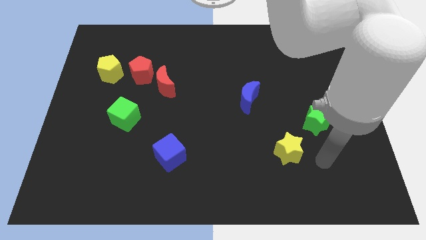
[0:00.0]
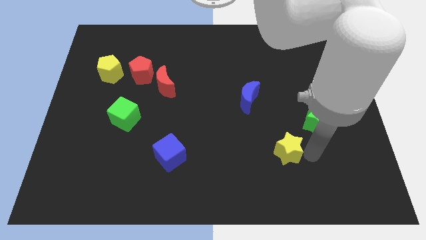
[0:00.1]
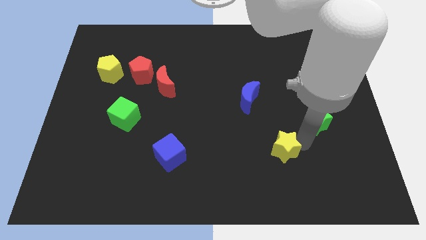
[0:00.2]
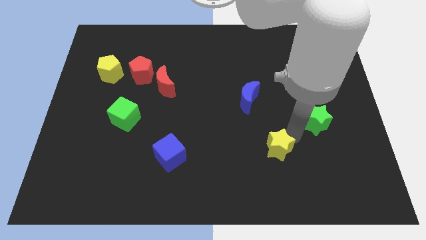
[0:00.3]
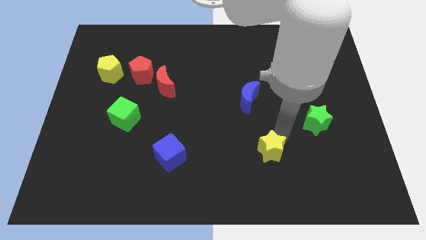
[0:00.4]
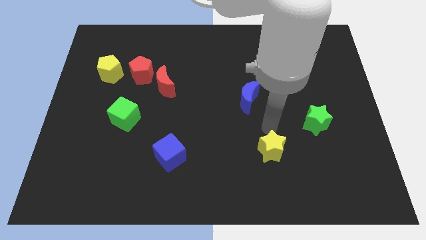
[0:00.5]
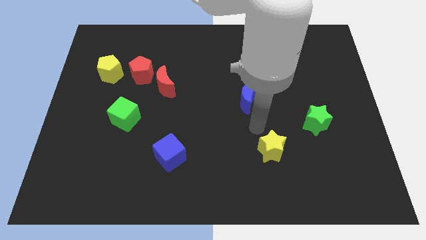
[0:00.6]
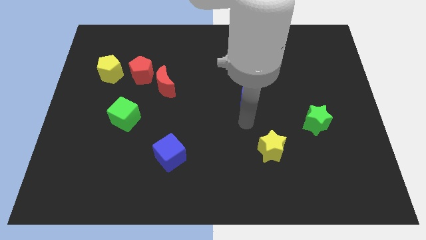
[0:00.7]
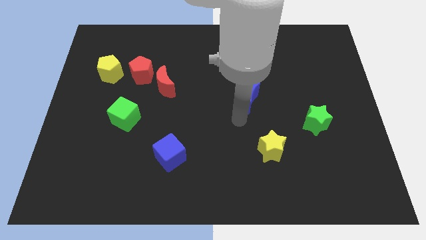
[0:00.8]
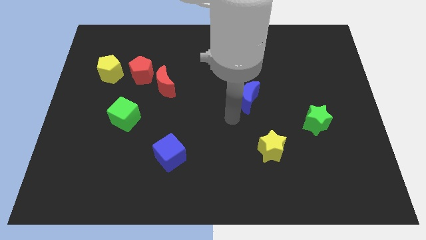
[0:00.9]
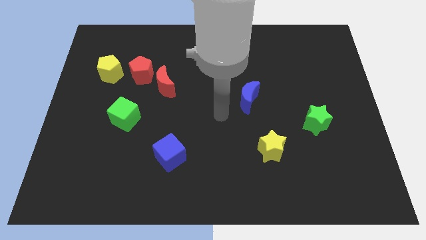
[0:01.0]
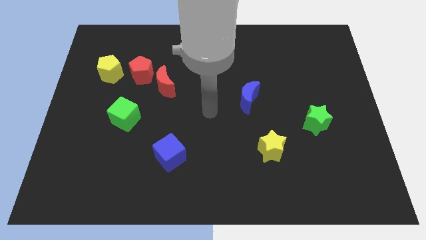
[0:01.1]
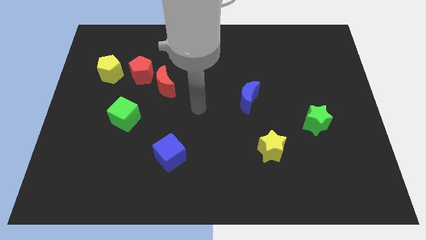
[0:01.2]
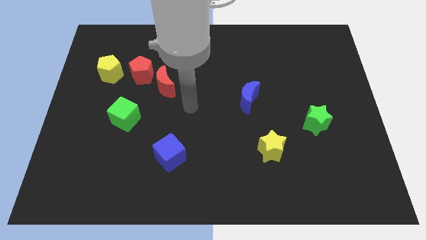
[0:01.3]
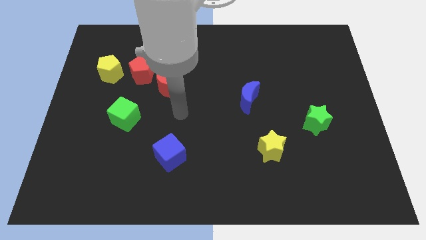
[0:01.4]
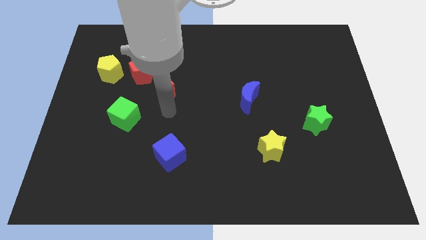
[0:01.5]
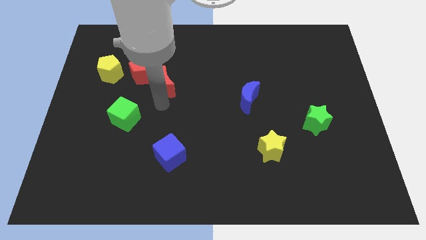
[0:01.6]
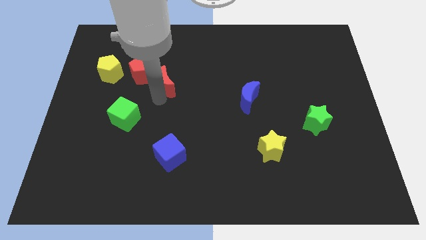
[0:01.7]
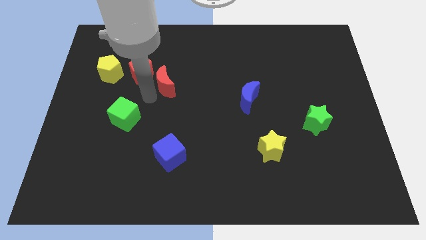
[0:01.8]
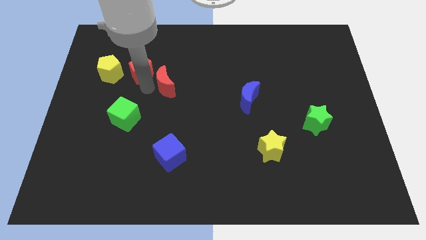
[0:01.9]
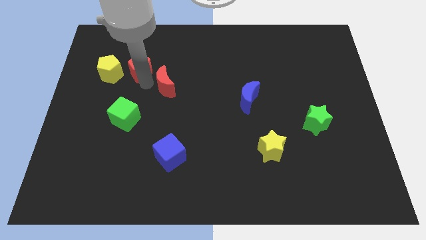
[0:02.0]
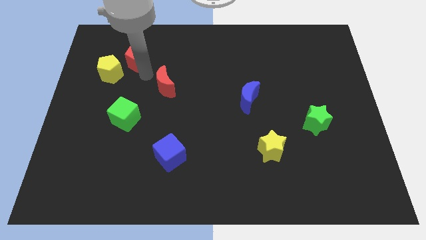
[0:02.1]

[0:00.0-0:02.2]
pull the red moon apart from the red pentagon

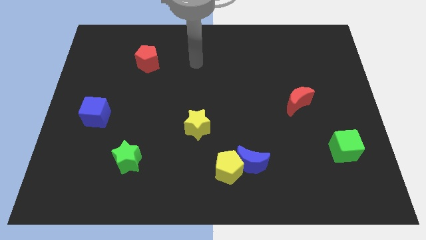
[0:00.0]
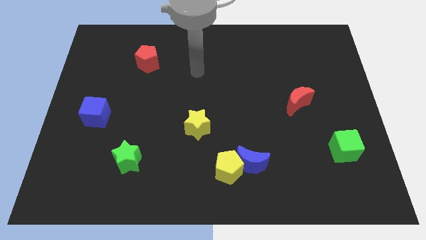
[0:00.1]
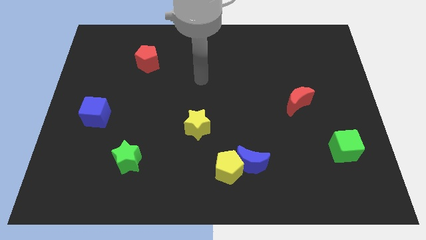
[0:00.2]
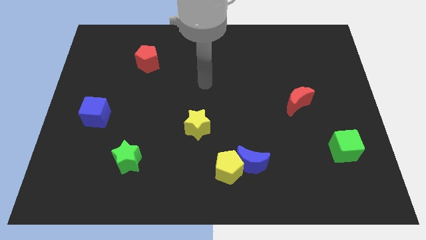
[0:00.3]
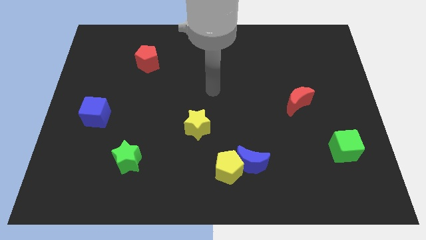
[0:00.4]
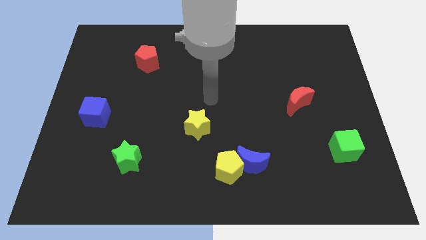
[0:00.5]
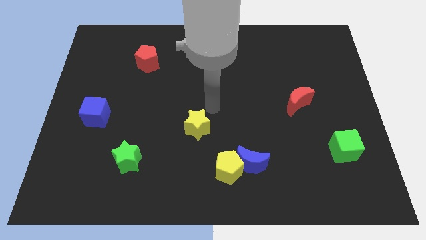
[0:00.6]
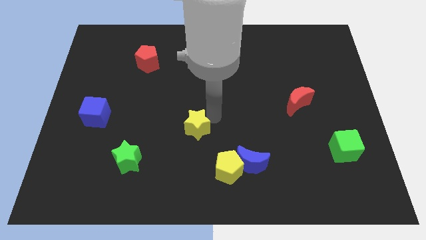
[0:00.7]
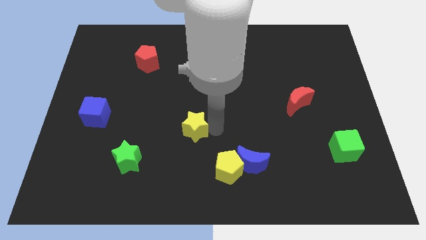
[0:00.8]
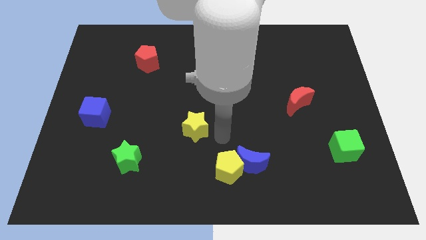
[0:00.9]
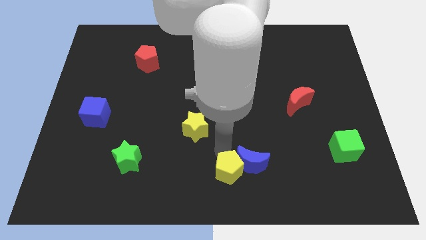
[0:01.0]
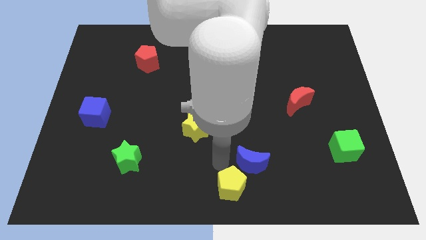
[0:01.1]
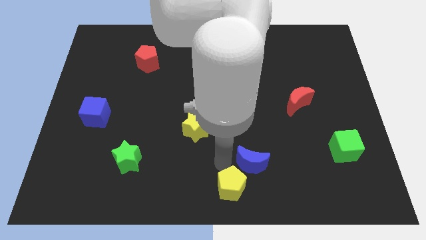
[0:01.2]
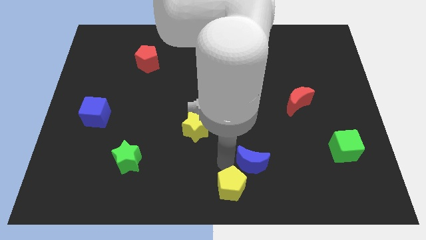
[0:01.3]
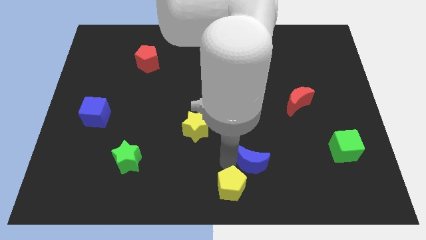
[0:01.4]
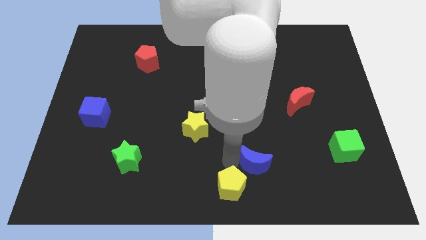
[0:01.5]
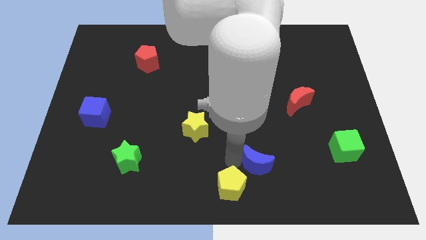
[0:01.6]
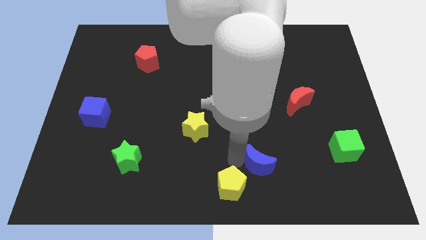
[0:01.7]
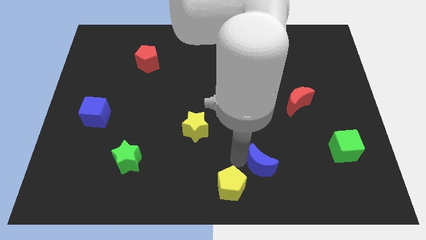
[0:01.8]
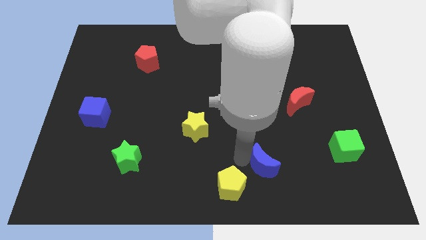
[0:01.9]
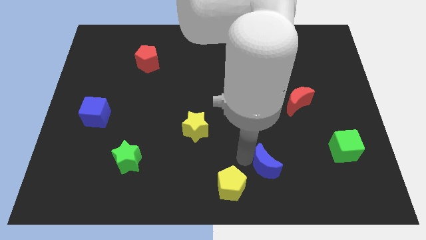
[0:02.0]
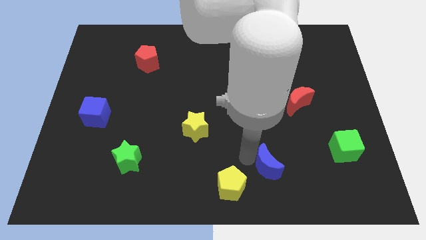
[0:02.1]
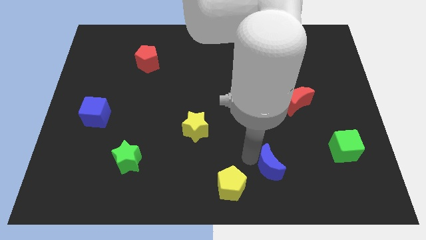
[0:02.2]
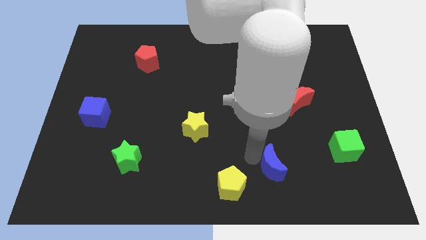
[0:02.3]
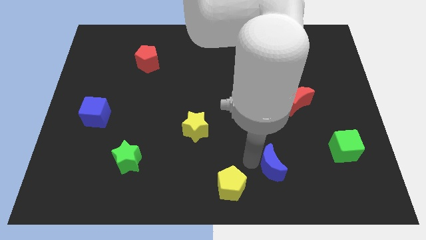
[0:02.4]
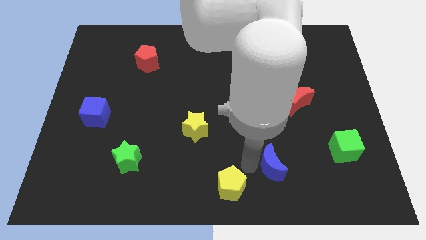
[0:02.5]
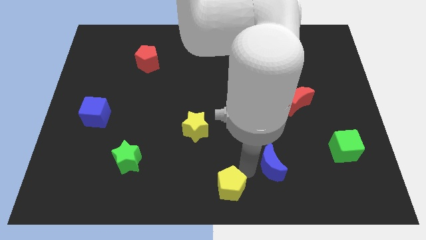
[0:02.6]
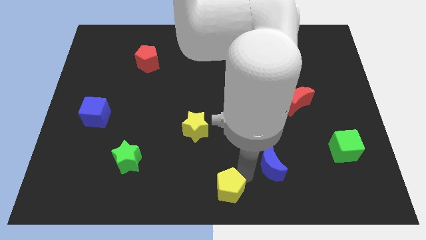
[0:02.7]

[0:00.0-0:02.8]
separate the blue moon from the yellow pentagon

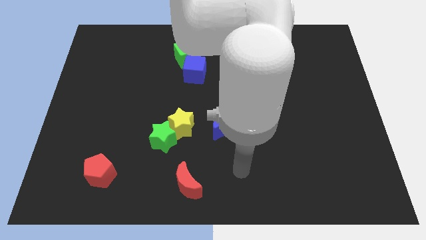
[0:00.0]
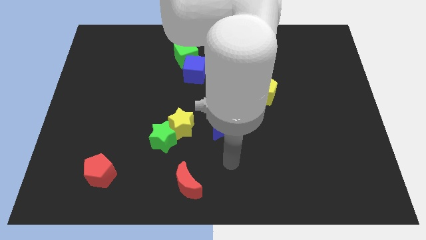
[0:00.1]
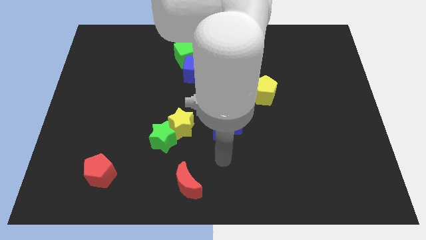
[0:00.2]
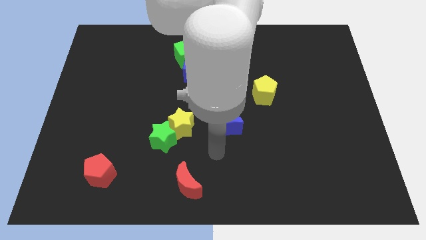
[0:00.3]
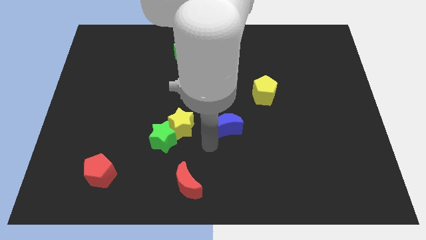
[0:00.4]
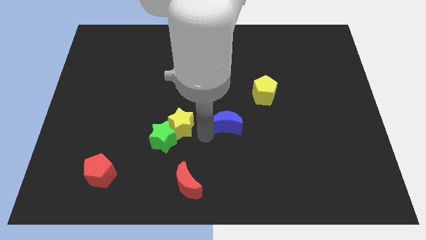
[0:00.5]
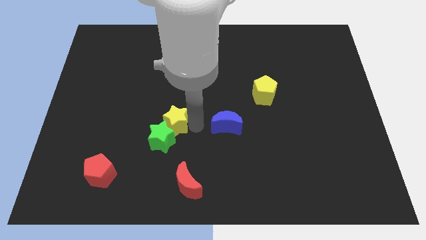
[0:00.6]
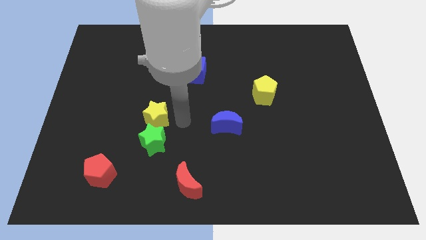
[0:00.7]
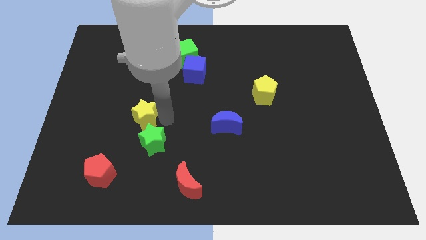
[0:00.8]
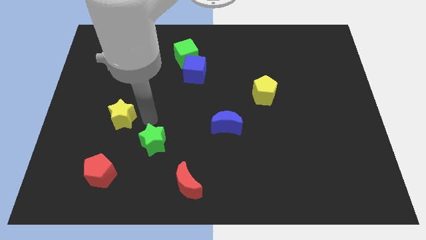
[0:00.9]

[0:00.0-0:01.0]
separate the green star from the yellow star

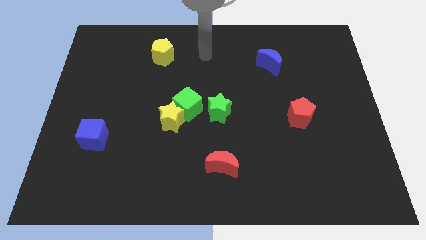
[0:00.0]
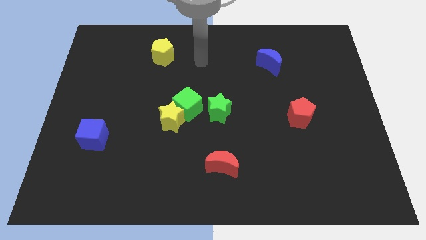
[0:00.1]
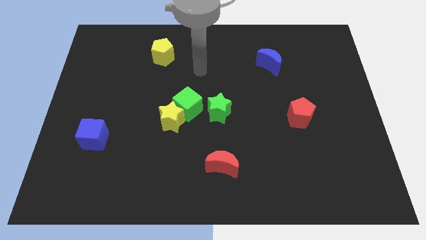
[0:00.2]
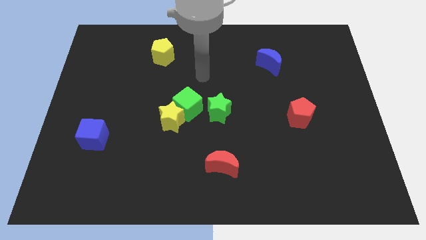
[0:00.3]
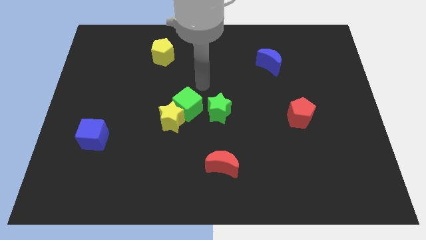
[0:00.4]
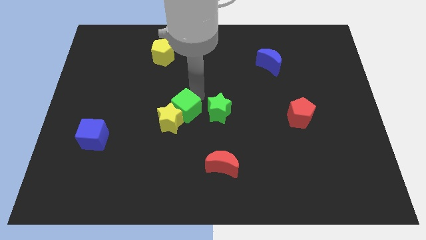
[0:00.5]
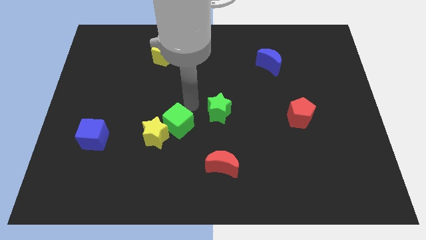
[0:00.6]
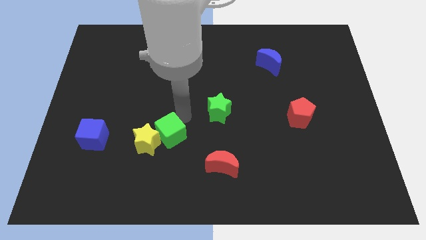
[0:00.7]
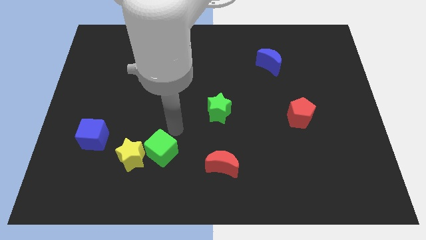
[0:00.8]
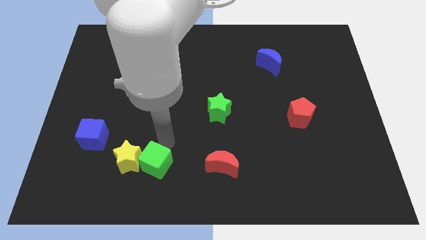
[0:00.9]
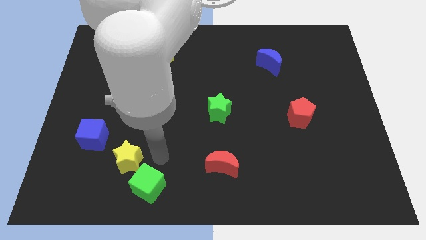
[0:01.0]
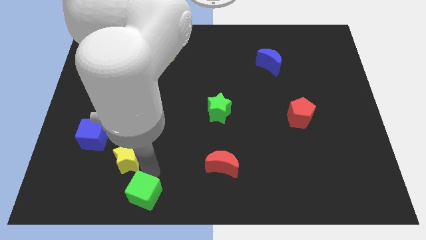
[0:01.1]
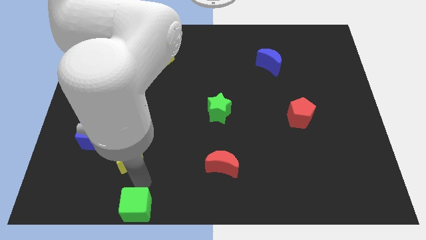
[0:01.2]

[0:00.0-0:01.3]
separate the yellow star from the green cube

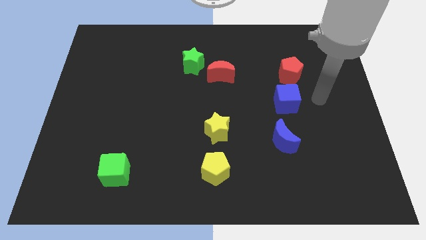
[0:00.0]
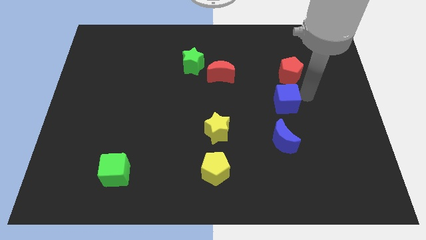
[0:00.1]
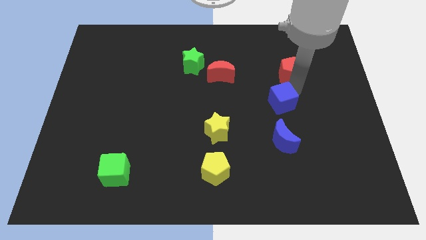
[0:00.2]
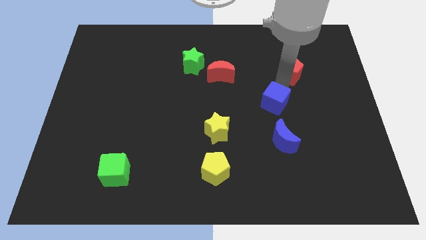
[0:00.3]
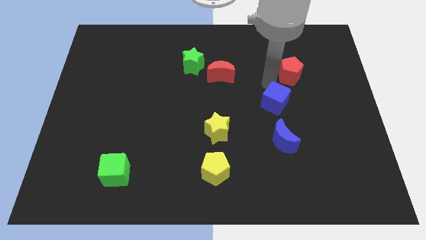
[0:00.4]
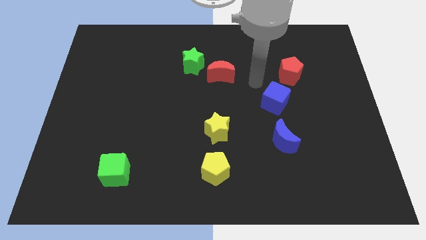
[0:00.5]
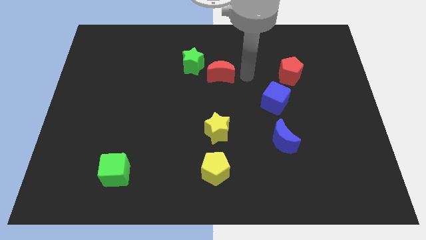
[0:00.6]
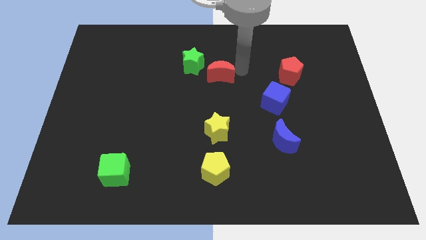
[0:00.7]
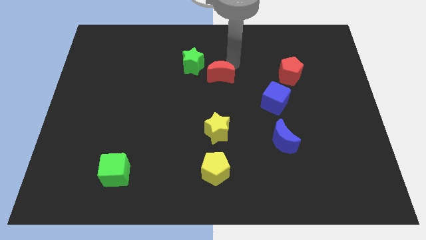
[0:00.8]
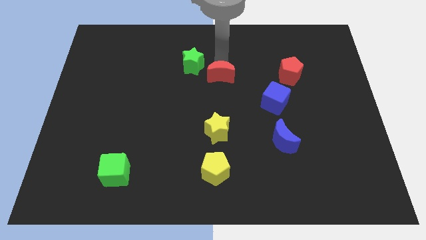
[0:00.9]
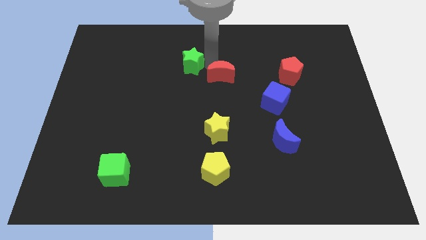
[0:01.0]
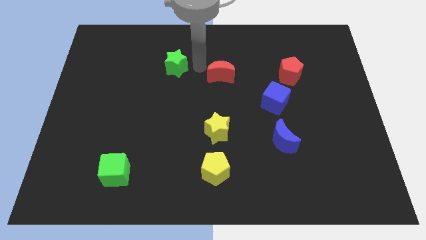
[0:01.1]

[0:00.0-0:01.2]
pull the red moon apart from the green star

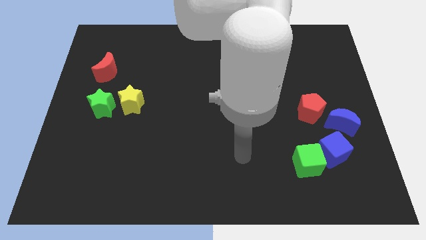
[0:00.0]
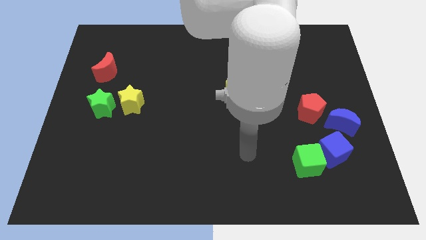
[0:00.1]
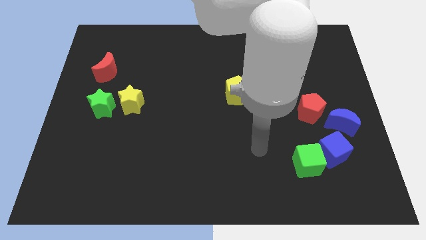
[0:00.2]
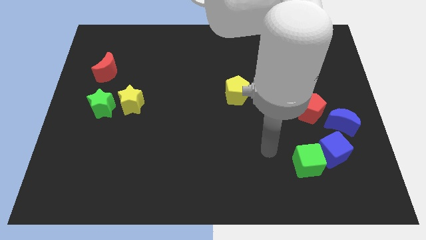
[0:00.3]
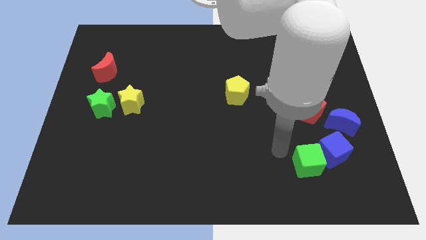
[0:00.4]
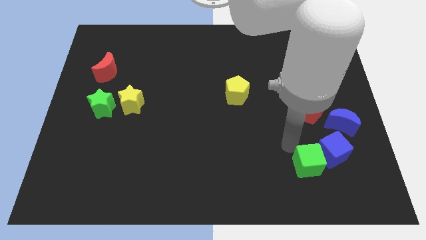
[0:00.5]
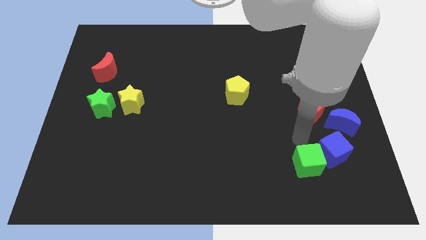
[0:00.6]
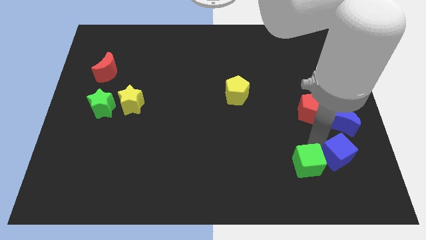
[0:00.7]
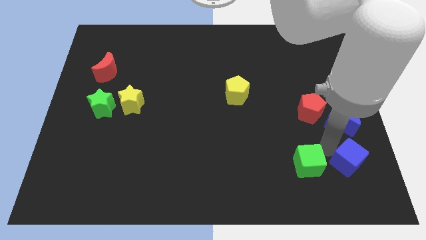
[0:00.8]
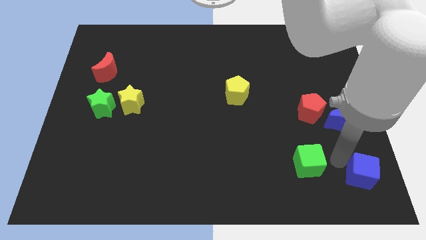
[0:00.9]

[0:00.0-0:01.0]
separate the green cube from the blue cube
